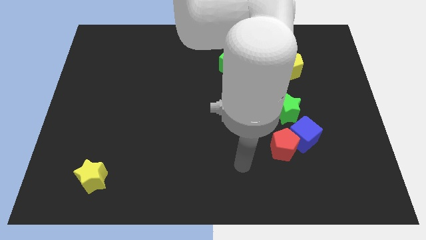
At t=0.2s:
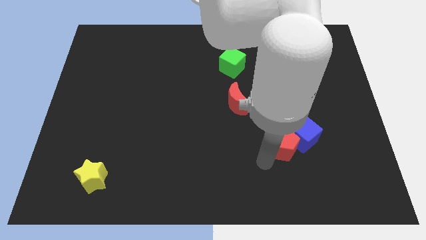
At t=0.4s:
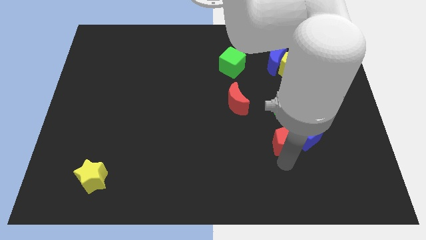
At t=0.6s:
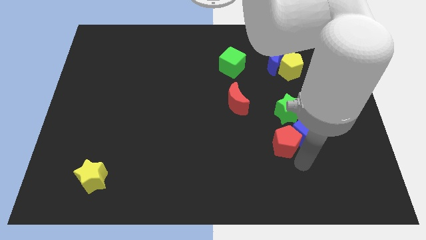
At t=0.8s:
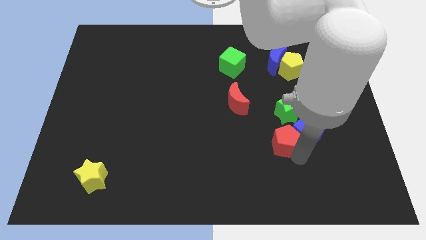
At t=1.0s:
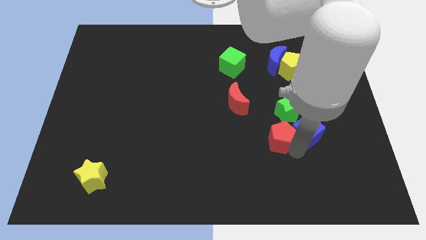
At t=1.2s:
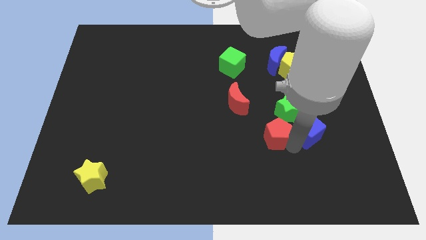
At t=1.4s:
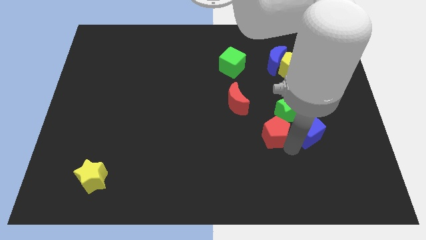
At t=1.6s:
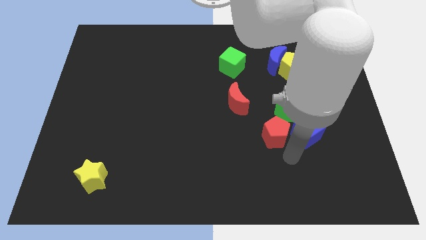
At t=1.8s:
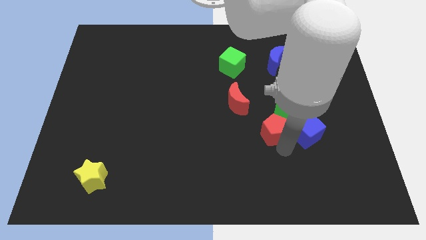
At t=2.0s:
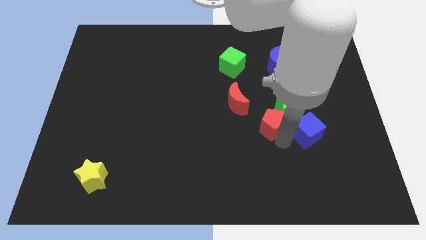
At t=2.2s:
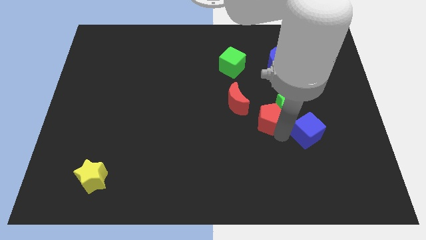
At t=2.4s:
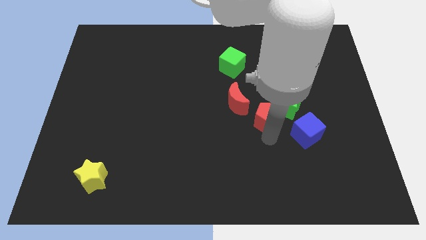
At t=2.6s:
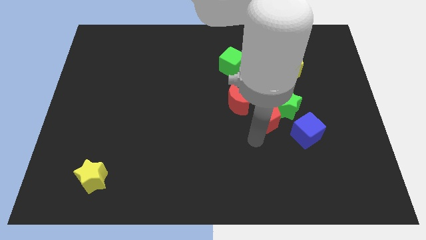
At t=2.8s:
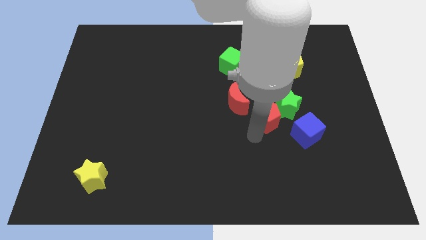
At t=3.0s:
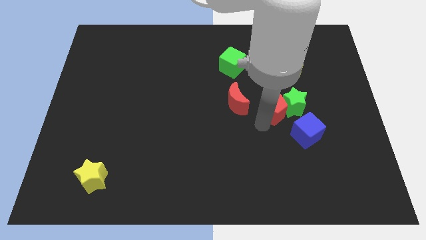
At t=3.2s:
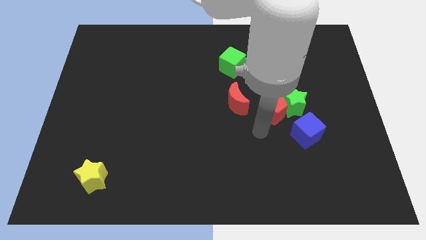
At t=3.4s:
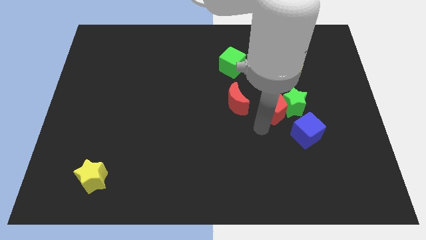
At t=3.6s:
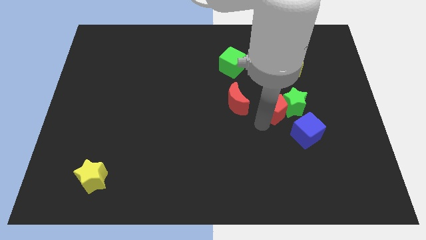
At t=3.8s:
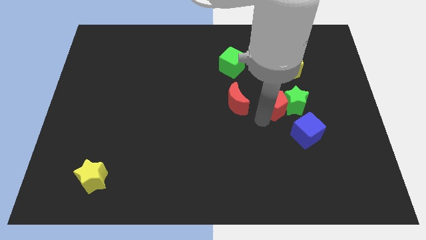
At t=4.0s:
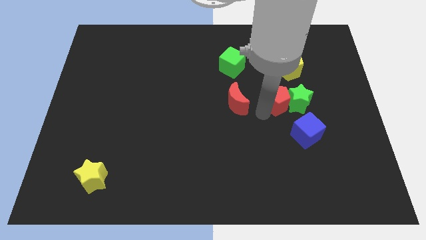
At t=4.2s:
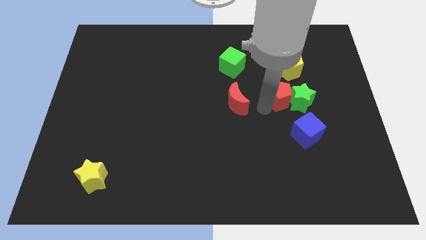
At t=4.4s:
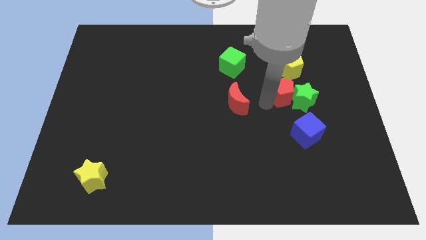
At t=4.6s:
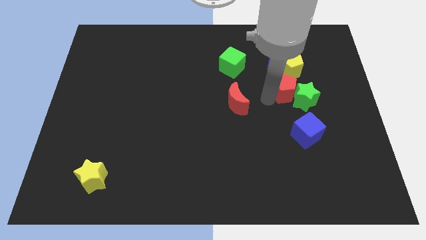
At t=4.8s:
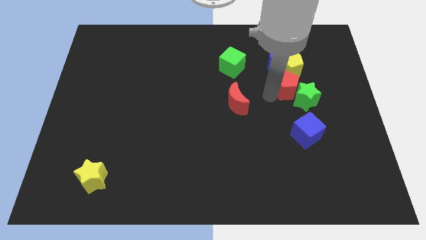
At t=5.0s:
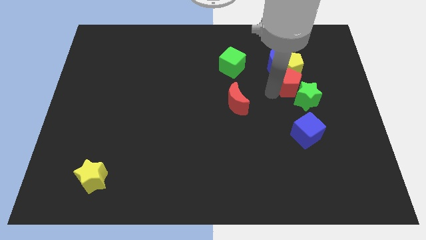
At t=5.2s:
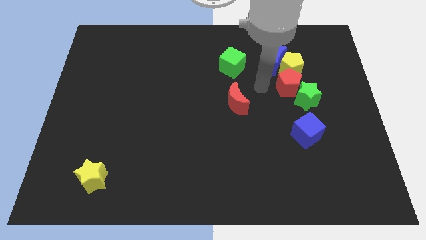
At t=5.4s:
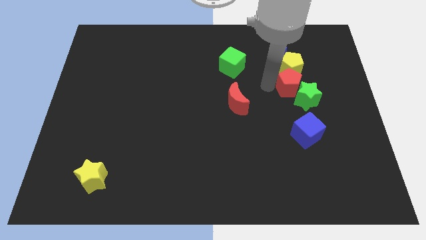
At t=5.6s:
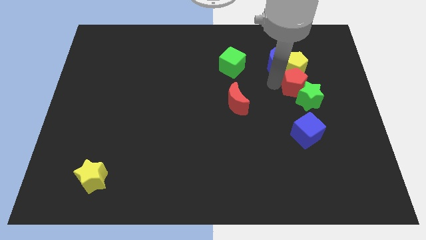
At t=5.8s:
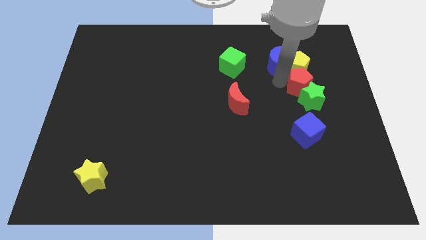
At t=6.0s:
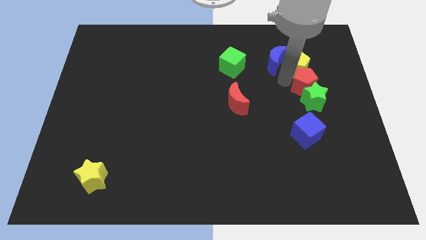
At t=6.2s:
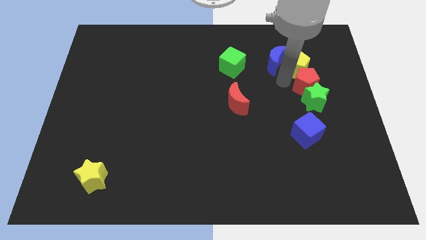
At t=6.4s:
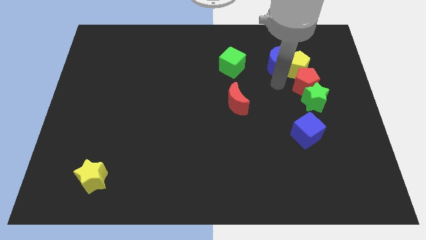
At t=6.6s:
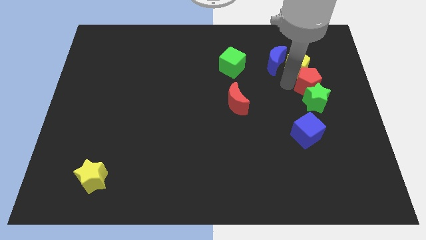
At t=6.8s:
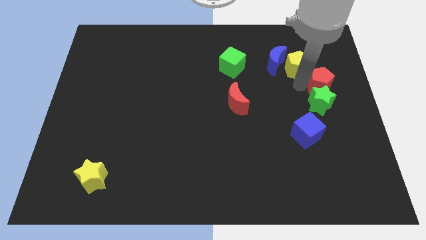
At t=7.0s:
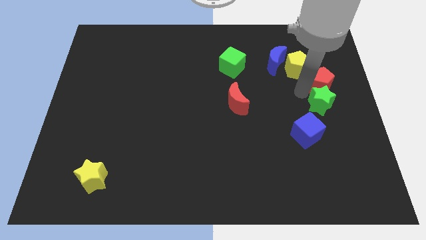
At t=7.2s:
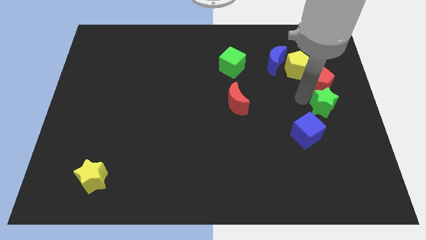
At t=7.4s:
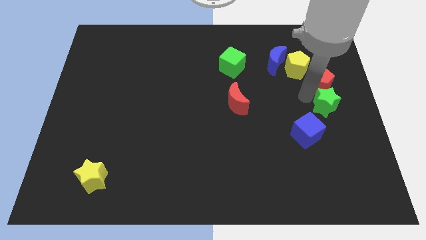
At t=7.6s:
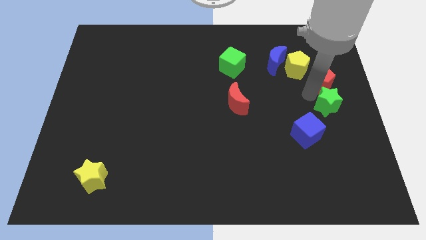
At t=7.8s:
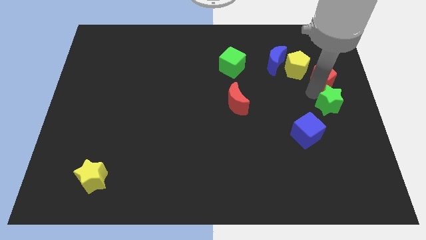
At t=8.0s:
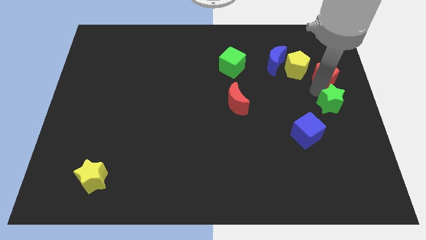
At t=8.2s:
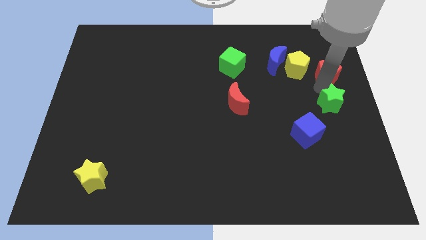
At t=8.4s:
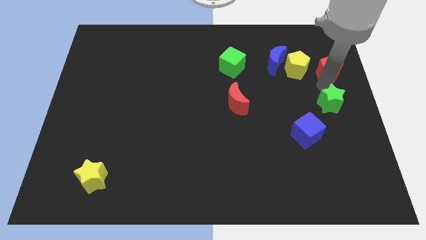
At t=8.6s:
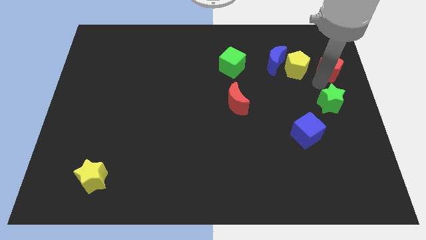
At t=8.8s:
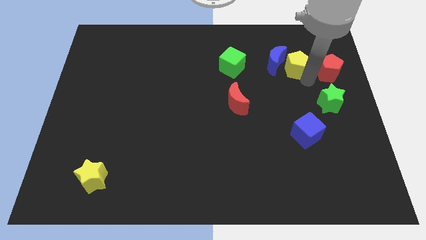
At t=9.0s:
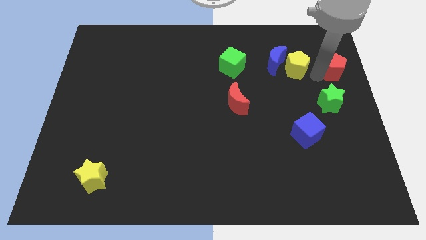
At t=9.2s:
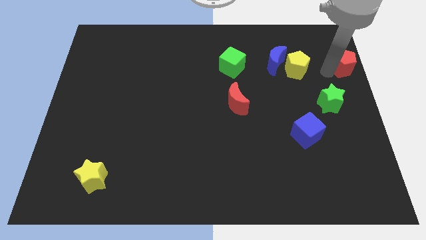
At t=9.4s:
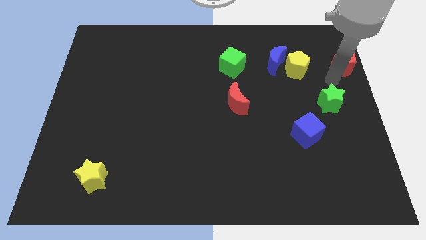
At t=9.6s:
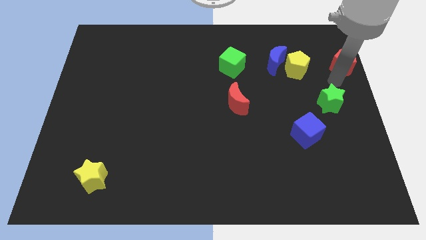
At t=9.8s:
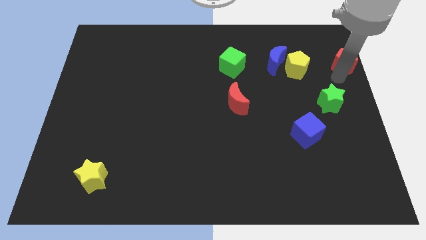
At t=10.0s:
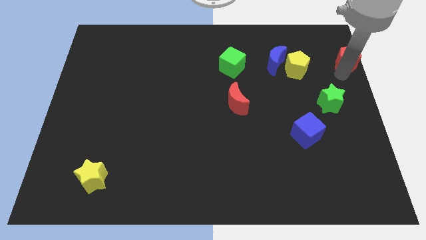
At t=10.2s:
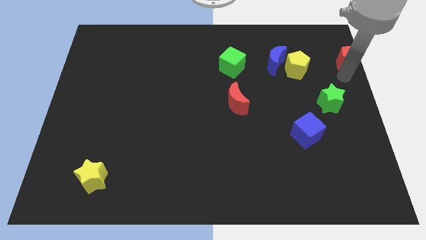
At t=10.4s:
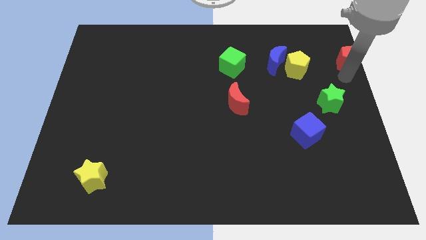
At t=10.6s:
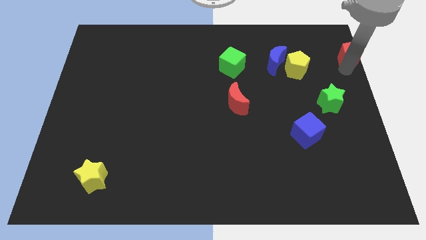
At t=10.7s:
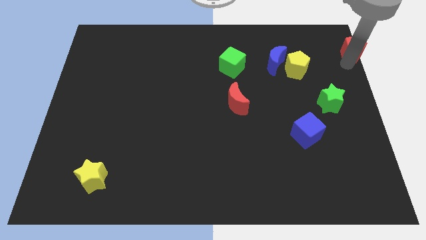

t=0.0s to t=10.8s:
put the red pentagon to the top right corner

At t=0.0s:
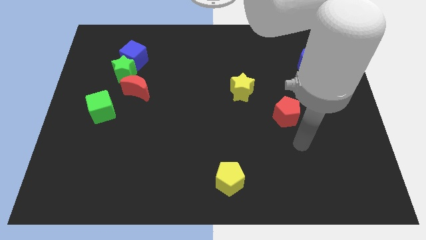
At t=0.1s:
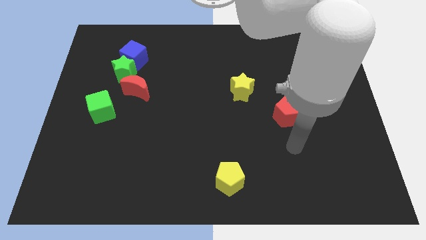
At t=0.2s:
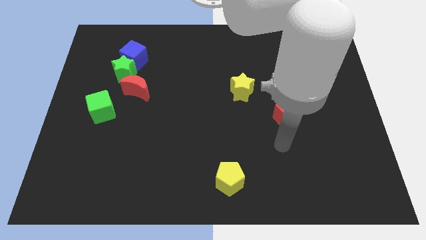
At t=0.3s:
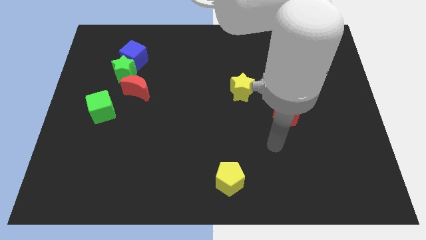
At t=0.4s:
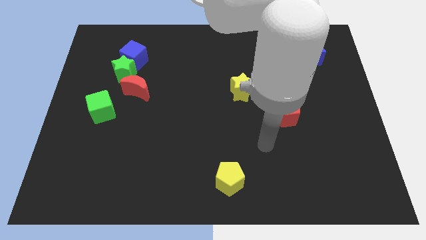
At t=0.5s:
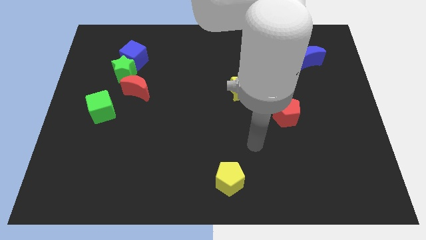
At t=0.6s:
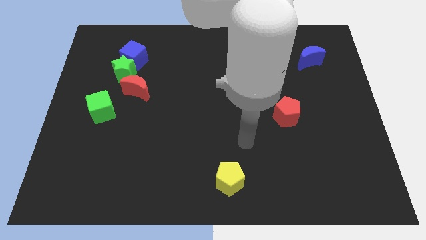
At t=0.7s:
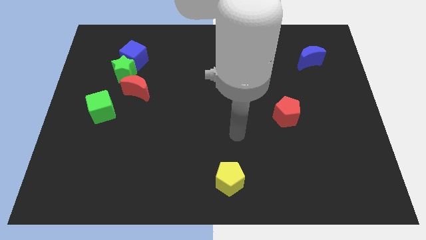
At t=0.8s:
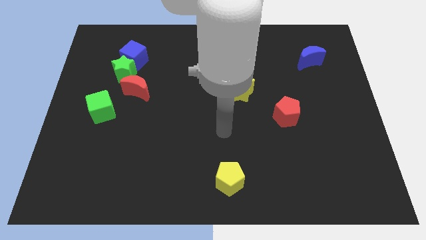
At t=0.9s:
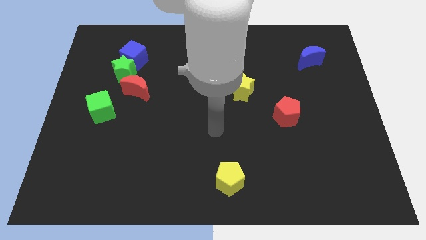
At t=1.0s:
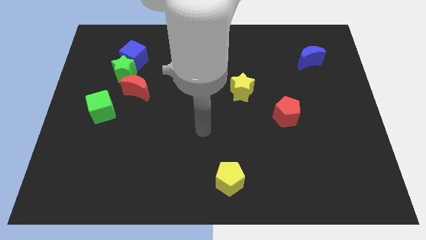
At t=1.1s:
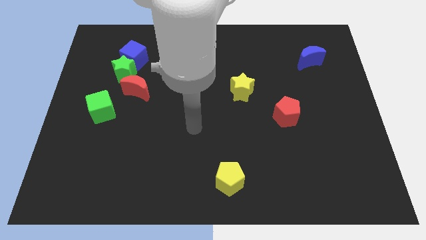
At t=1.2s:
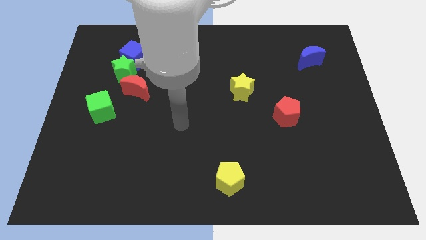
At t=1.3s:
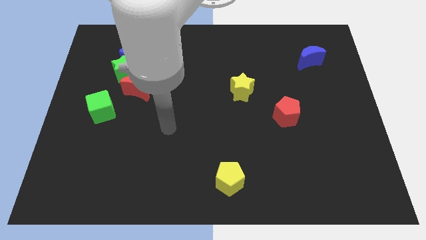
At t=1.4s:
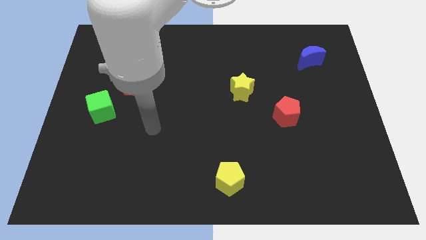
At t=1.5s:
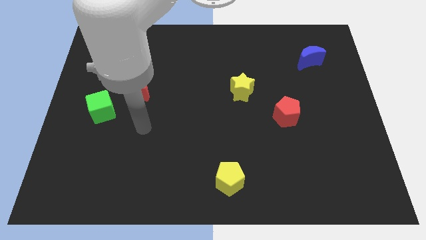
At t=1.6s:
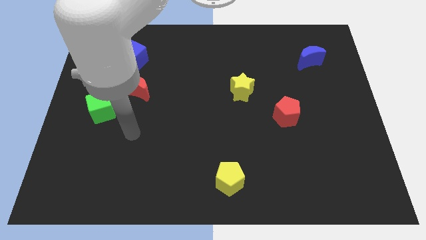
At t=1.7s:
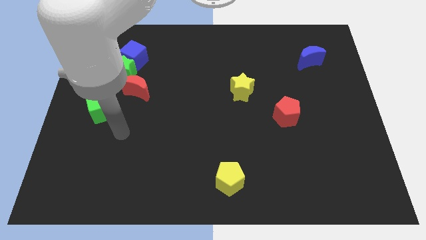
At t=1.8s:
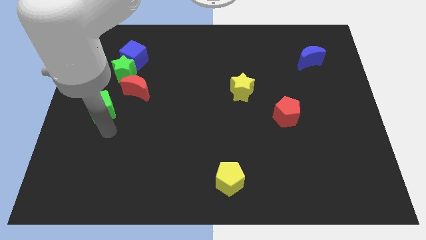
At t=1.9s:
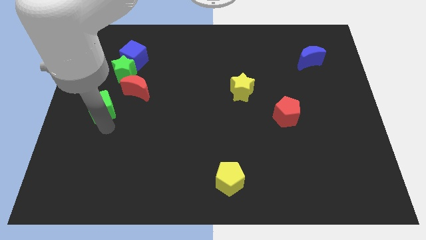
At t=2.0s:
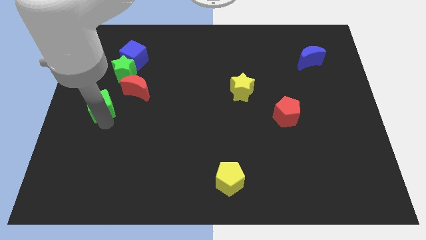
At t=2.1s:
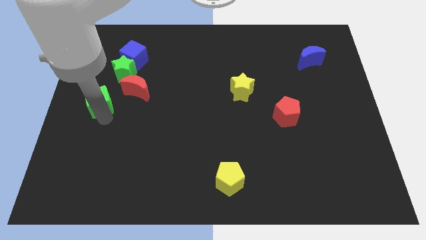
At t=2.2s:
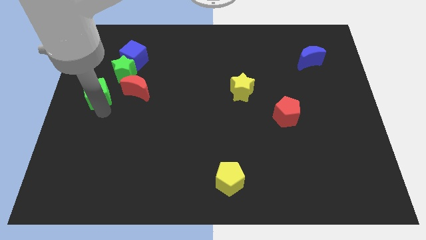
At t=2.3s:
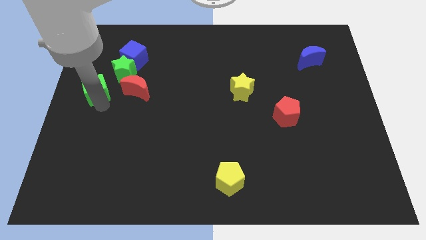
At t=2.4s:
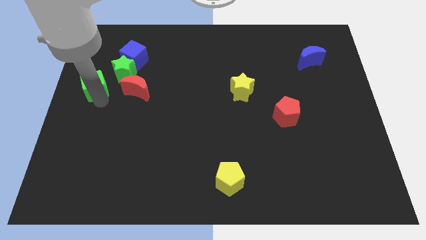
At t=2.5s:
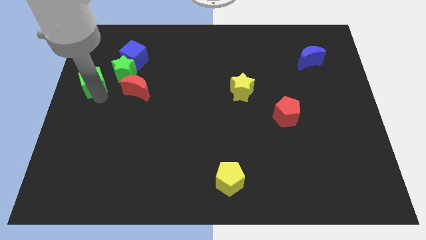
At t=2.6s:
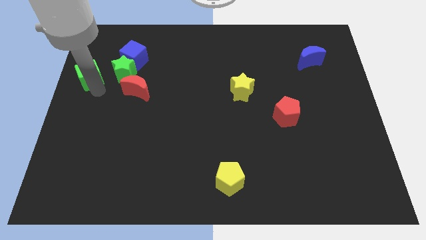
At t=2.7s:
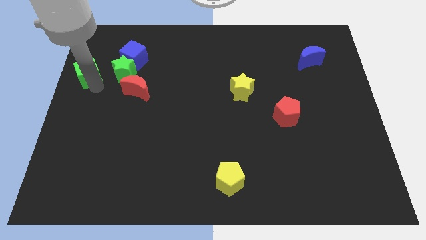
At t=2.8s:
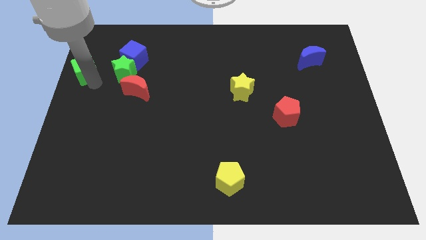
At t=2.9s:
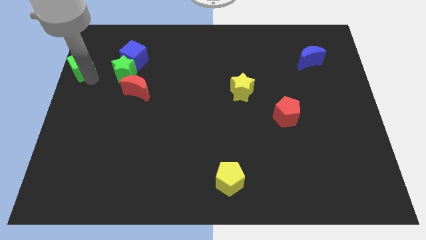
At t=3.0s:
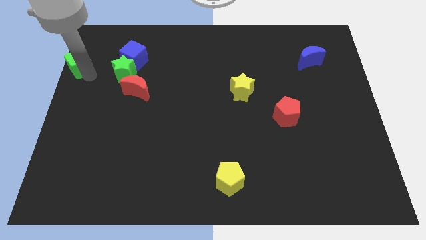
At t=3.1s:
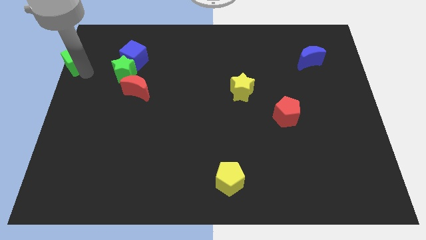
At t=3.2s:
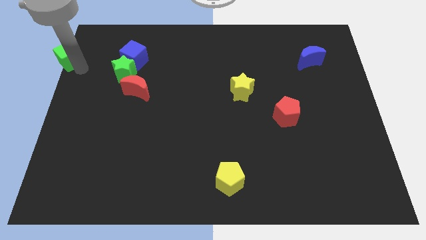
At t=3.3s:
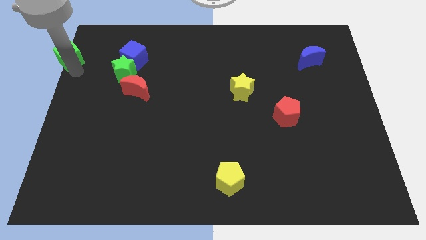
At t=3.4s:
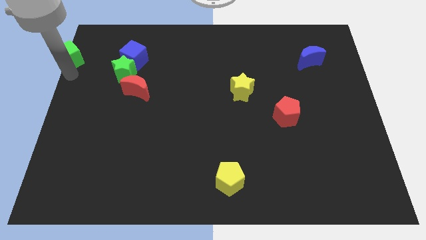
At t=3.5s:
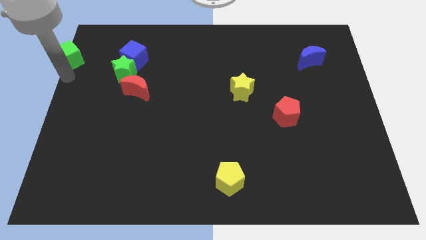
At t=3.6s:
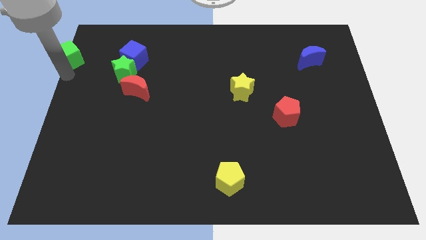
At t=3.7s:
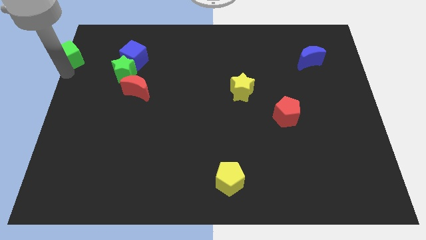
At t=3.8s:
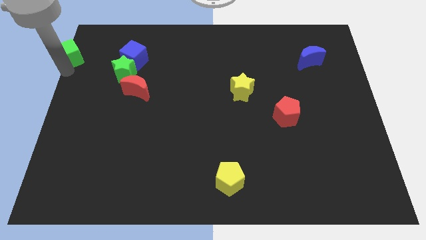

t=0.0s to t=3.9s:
move the green cube to the top left
